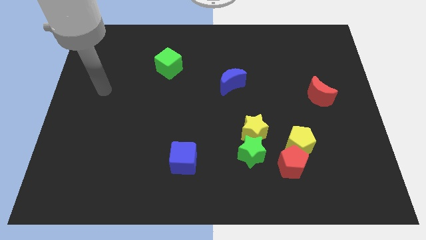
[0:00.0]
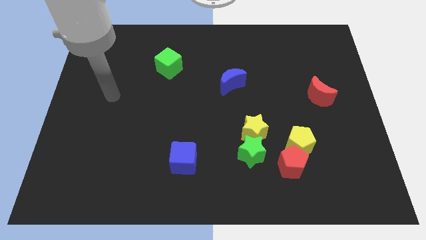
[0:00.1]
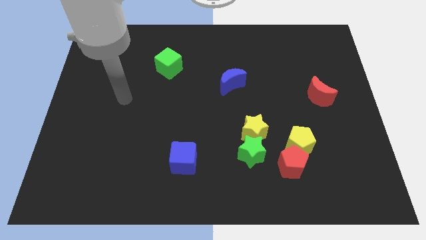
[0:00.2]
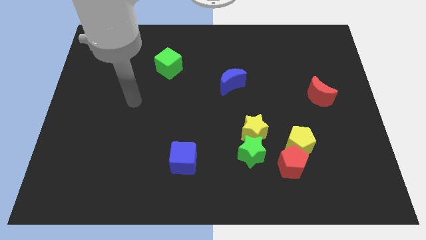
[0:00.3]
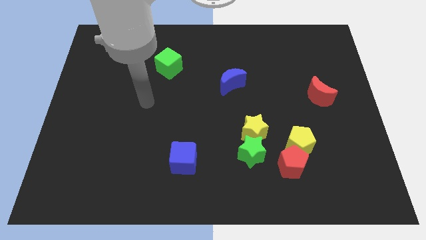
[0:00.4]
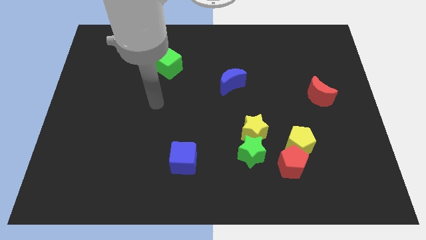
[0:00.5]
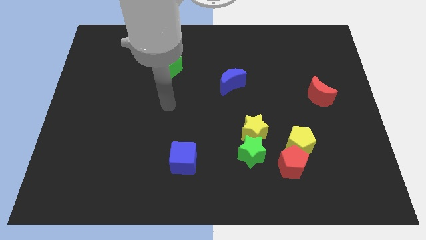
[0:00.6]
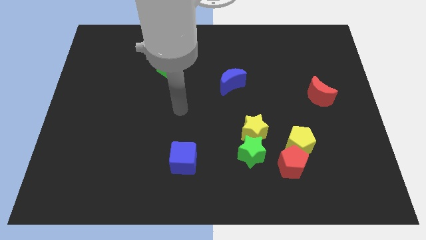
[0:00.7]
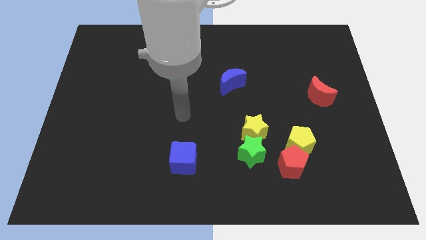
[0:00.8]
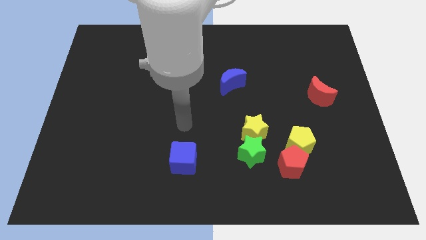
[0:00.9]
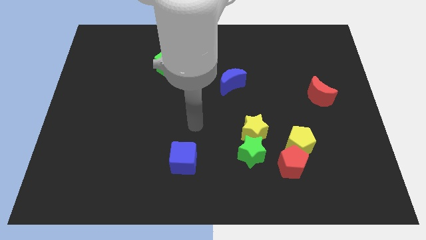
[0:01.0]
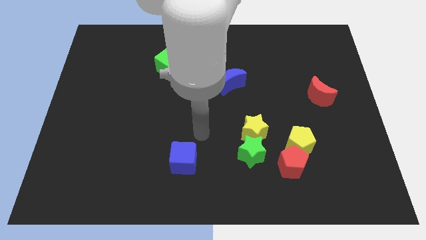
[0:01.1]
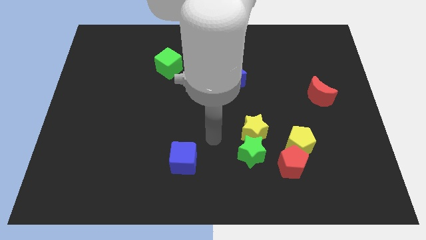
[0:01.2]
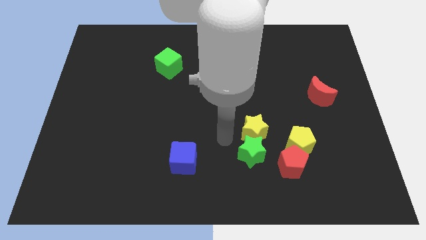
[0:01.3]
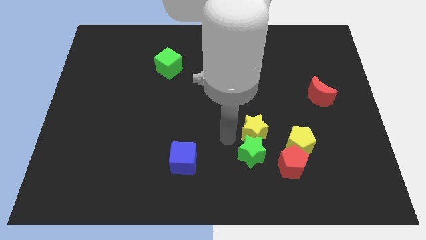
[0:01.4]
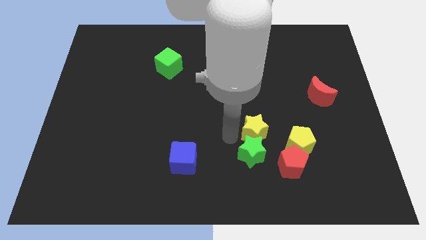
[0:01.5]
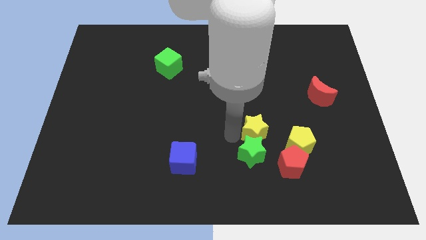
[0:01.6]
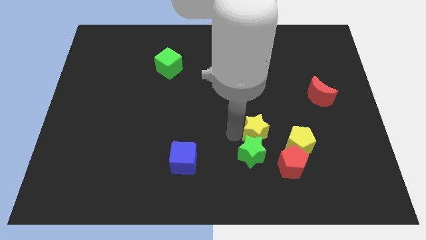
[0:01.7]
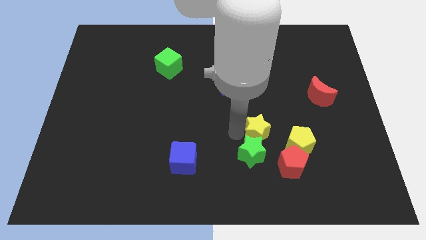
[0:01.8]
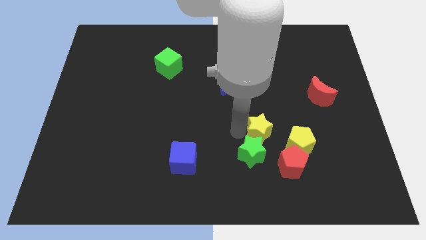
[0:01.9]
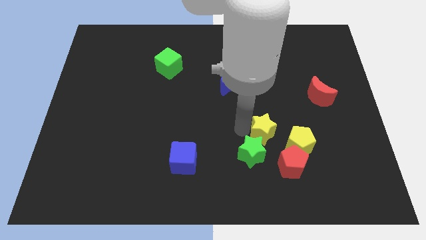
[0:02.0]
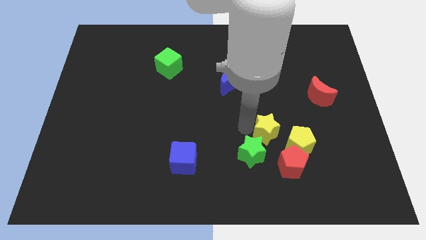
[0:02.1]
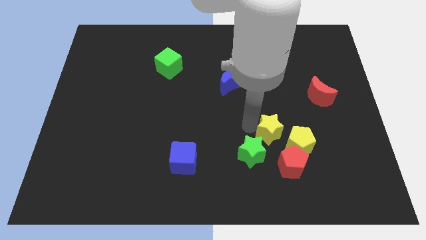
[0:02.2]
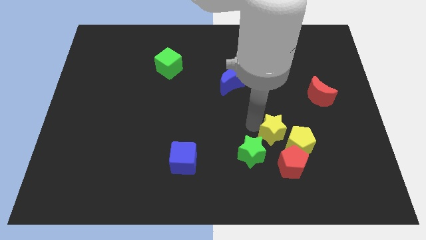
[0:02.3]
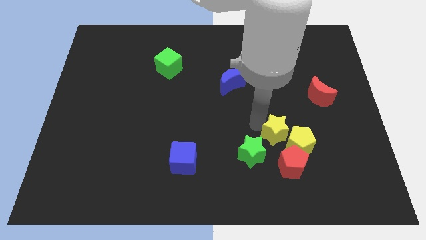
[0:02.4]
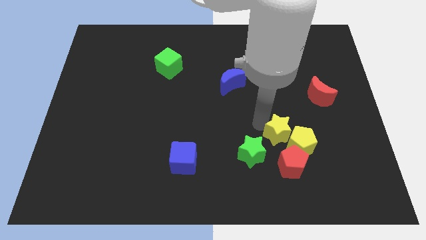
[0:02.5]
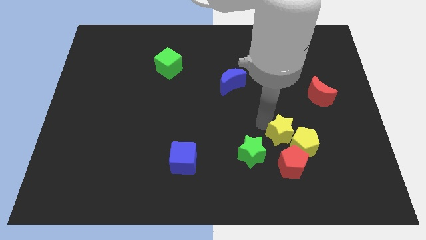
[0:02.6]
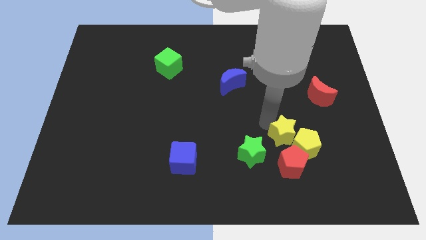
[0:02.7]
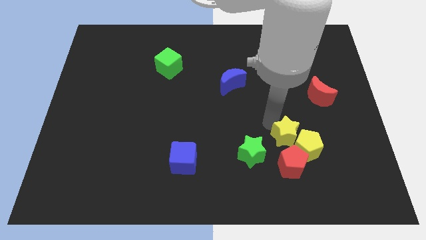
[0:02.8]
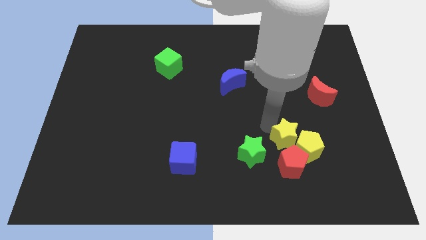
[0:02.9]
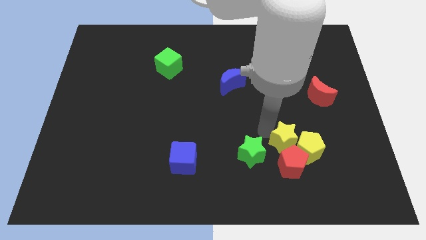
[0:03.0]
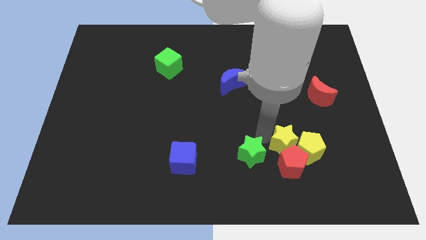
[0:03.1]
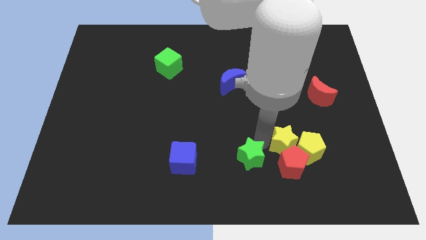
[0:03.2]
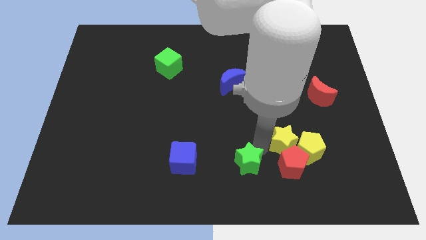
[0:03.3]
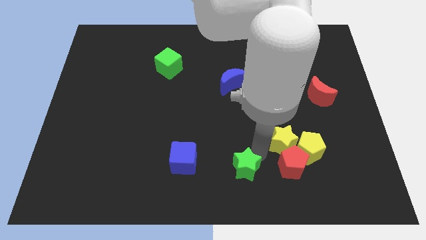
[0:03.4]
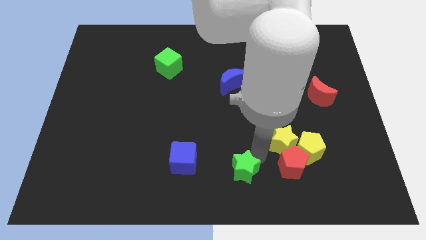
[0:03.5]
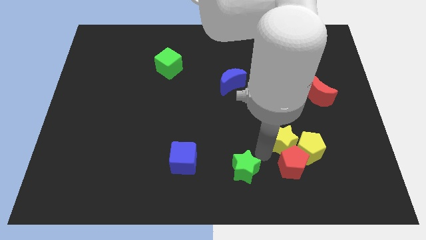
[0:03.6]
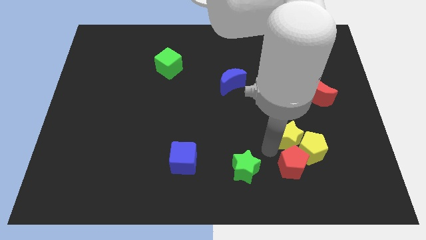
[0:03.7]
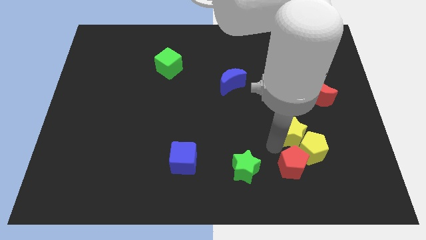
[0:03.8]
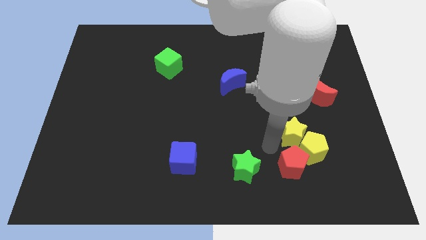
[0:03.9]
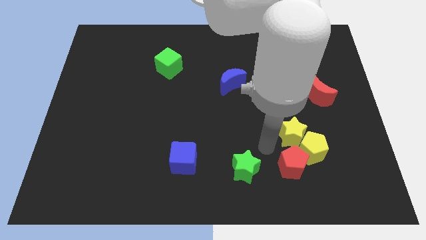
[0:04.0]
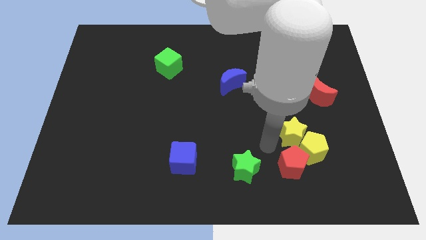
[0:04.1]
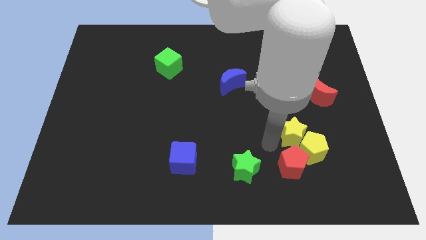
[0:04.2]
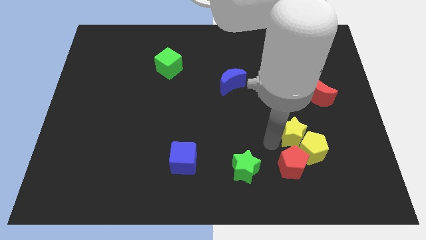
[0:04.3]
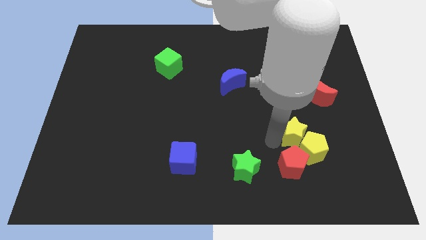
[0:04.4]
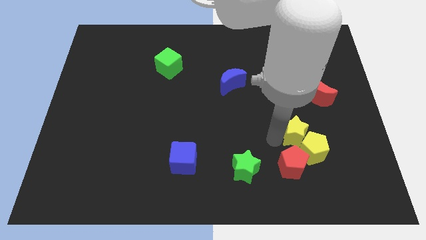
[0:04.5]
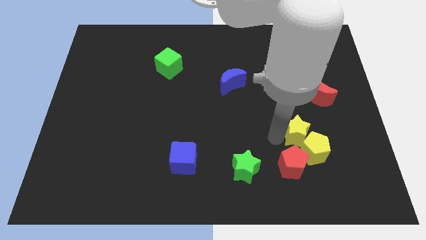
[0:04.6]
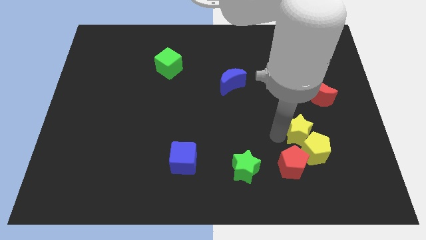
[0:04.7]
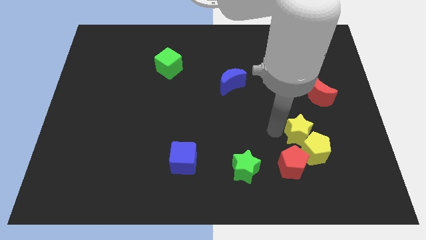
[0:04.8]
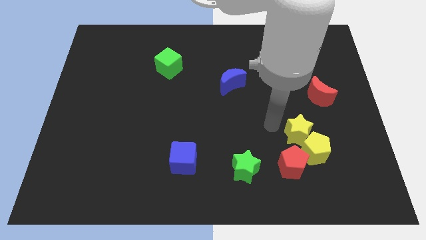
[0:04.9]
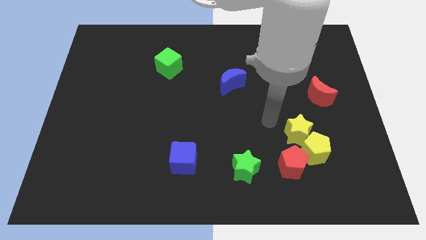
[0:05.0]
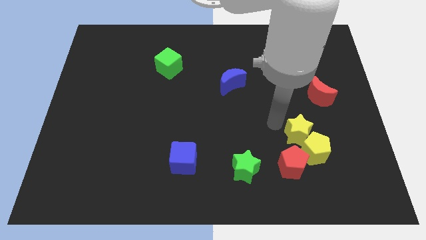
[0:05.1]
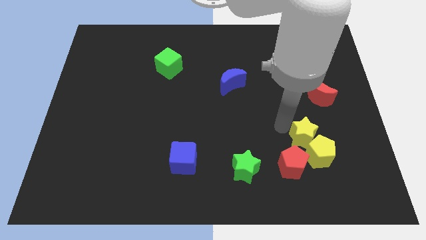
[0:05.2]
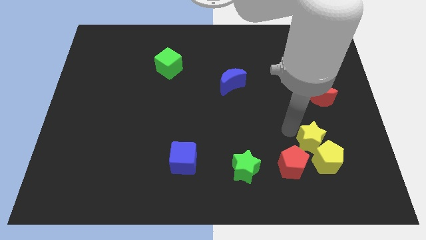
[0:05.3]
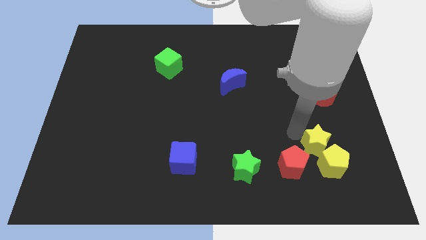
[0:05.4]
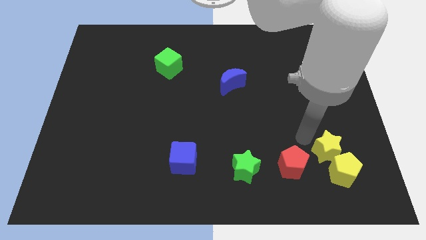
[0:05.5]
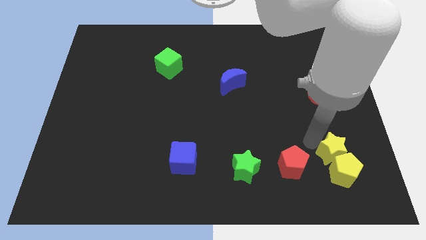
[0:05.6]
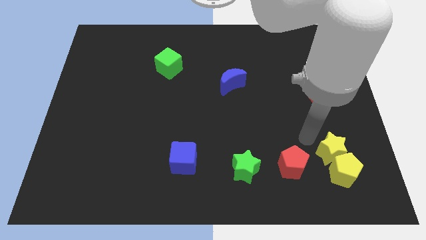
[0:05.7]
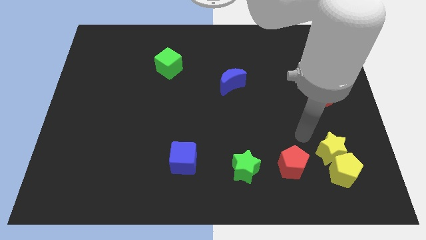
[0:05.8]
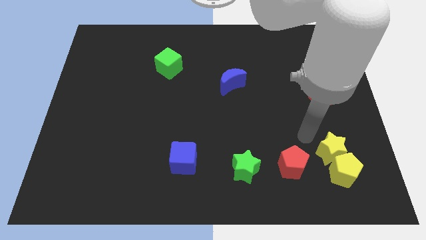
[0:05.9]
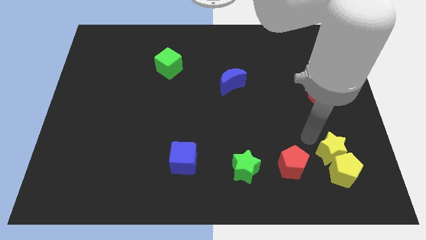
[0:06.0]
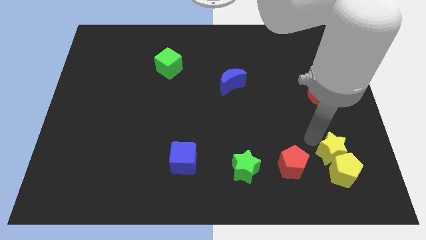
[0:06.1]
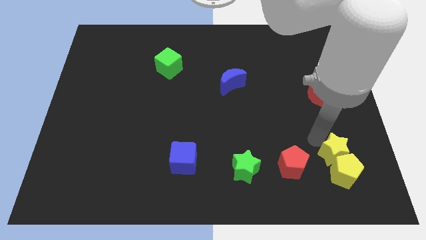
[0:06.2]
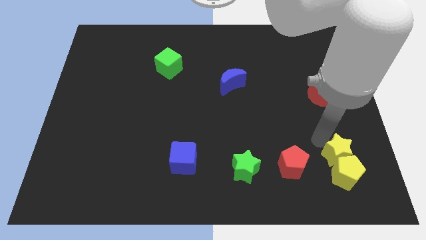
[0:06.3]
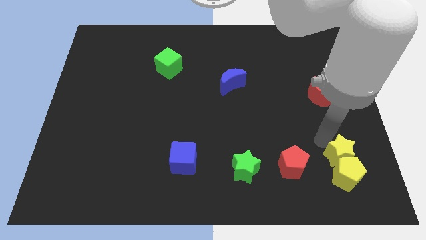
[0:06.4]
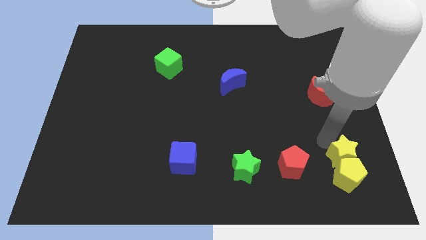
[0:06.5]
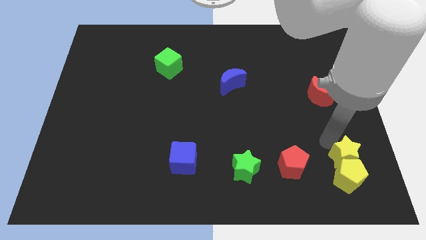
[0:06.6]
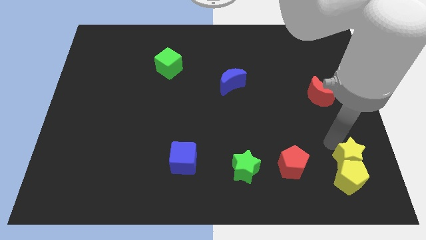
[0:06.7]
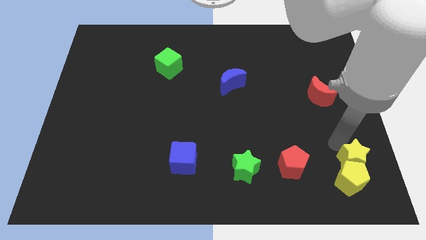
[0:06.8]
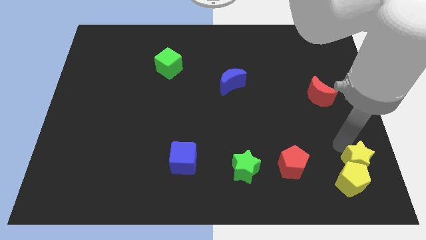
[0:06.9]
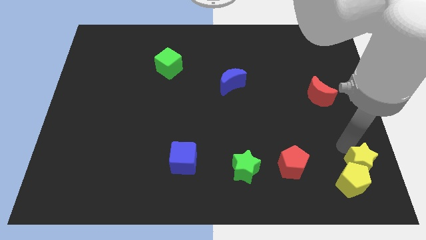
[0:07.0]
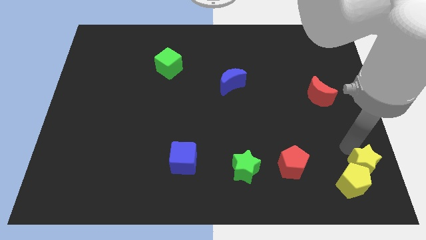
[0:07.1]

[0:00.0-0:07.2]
put the yellow star to the bottom right of the board
